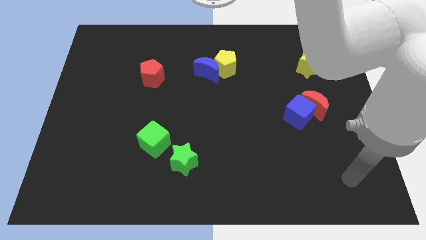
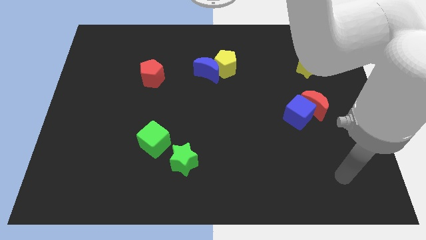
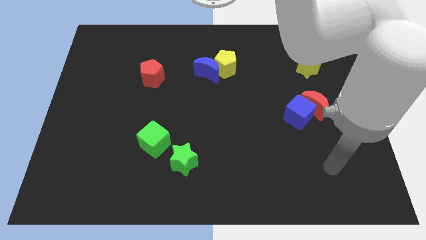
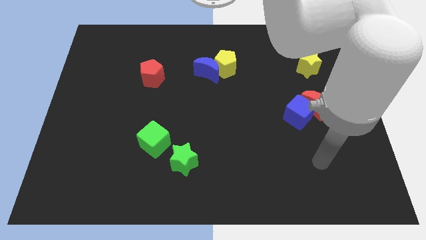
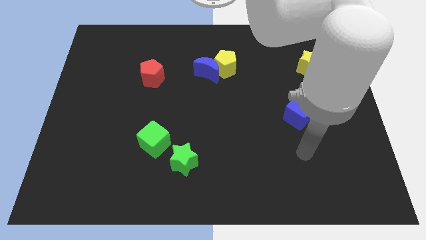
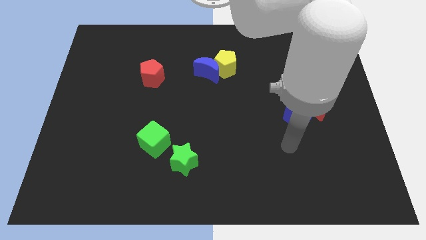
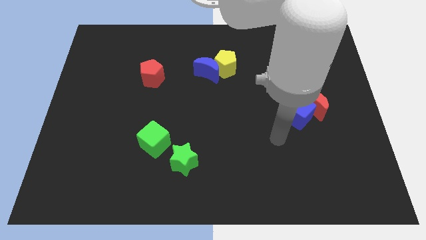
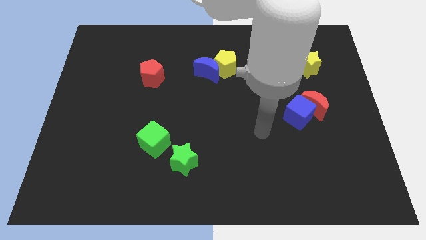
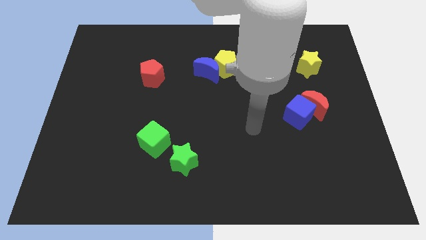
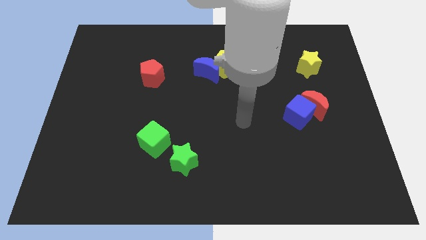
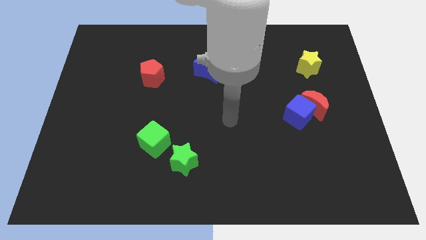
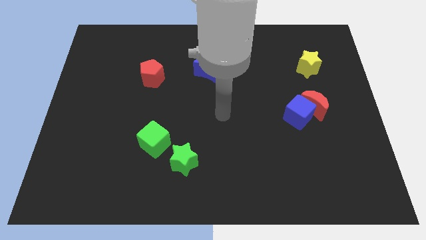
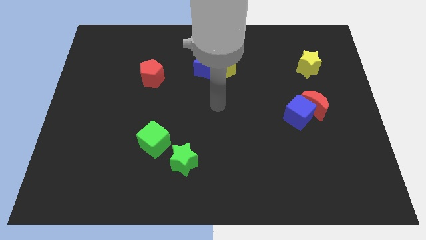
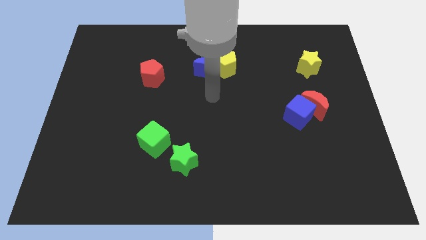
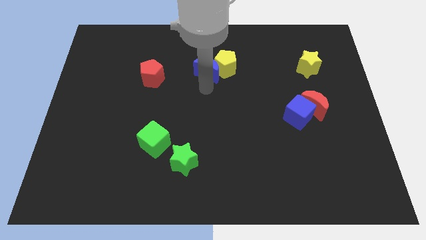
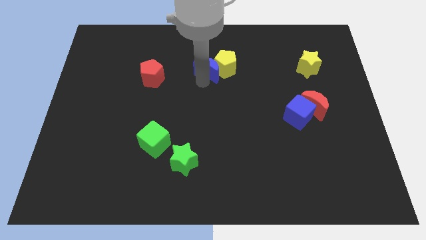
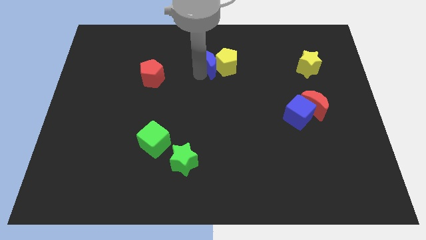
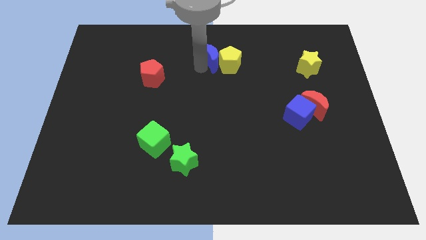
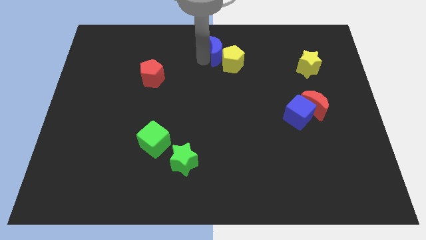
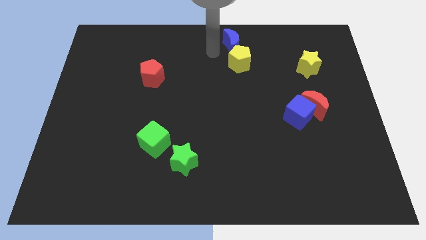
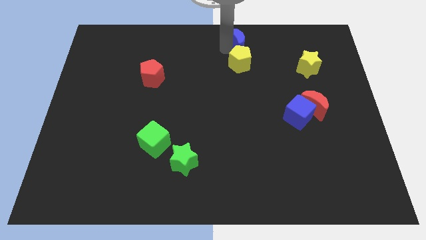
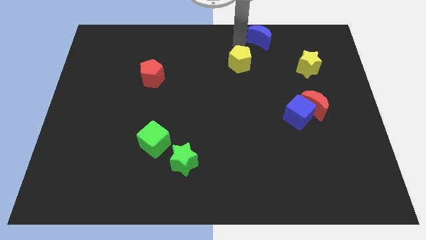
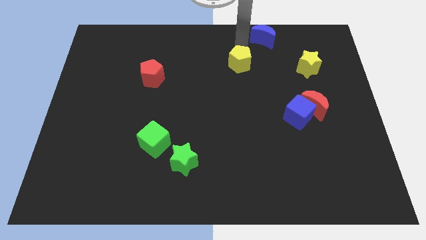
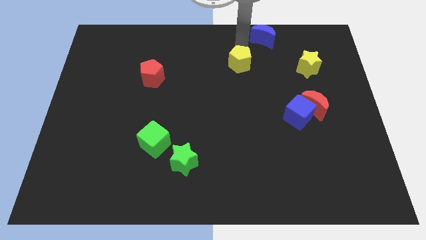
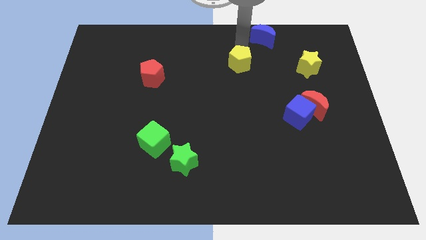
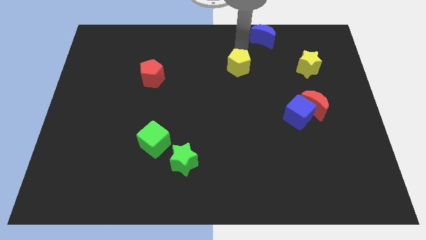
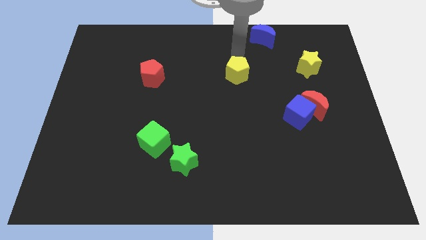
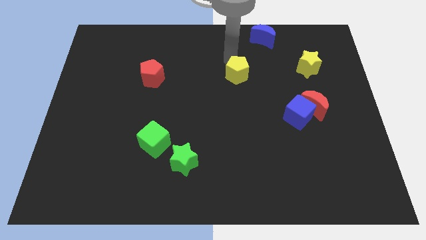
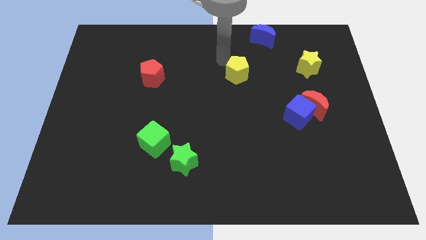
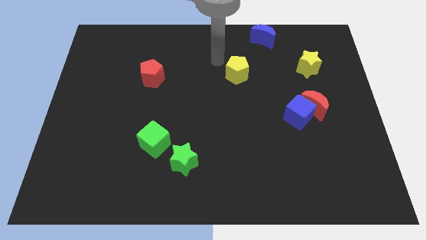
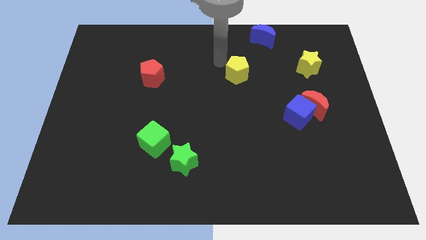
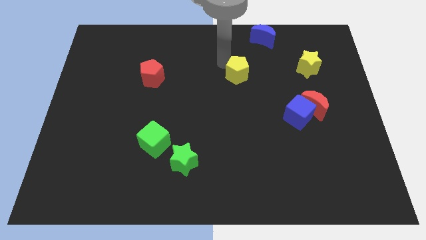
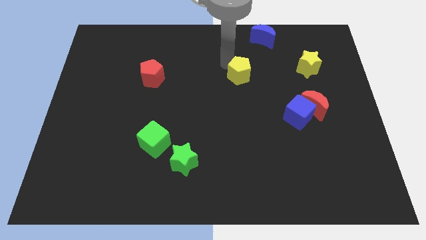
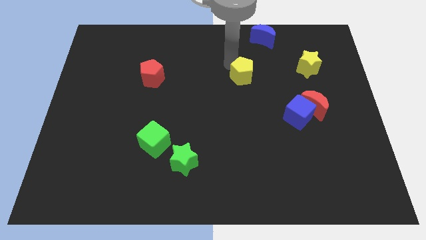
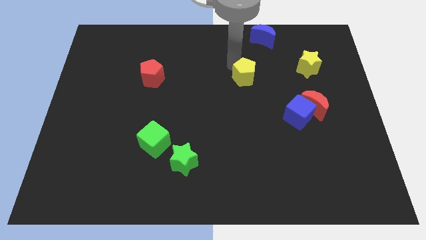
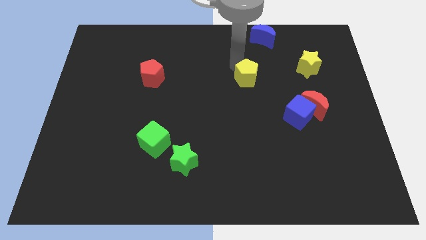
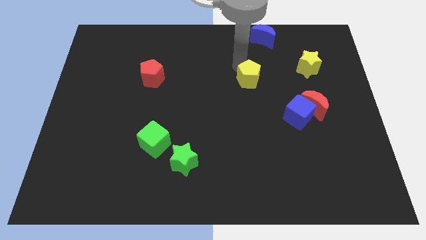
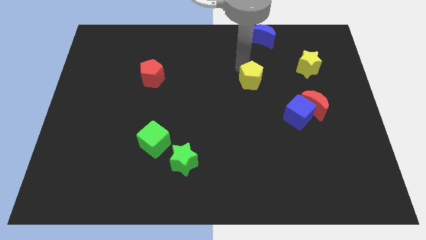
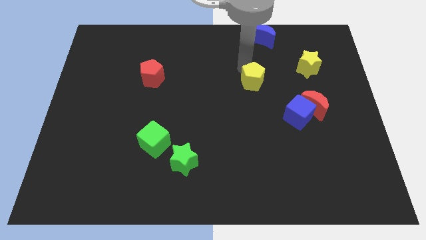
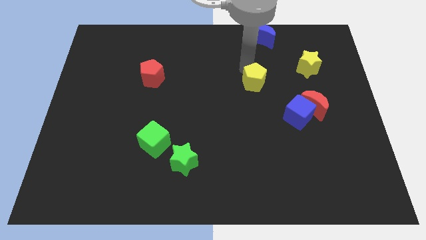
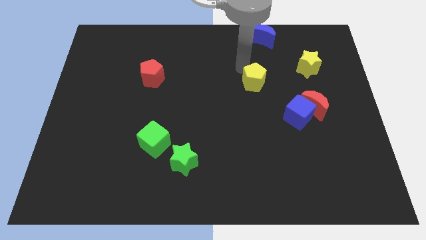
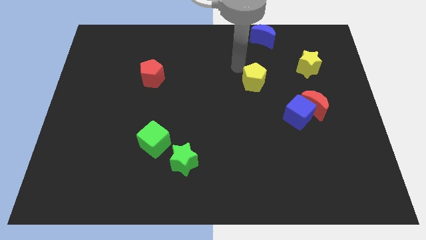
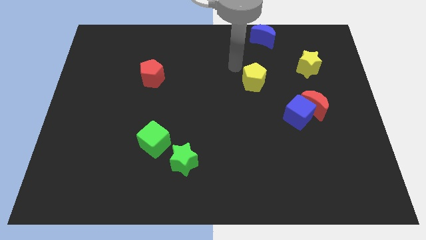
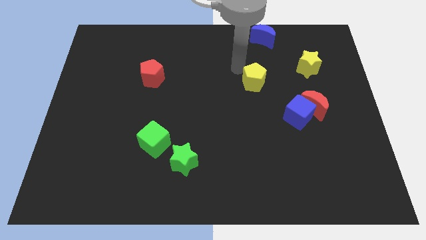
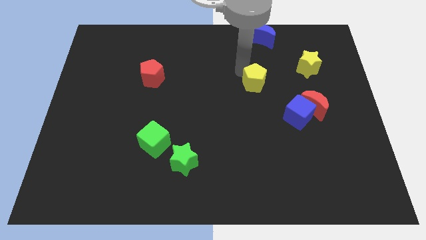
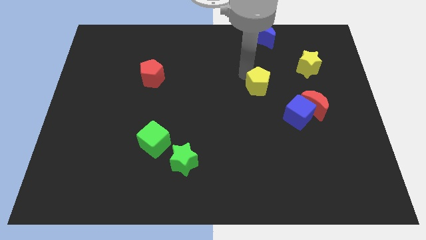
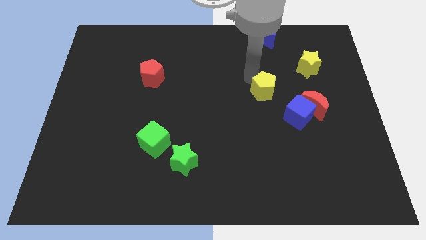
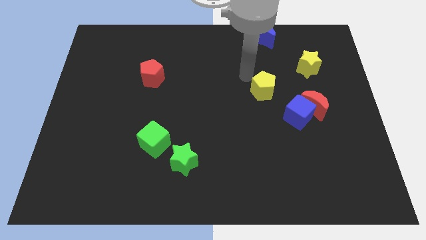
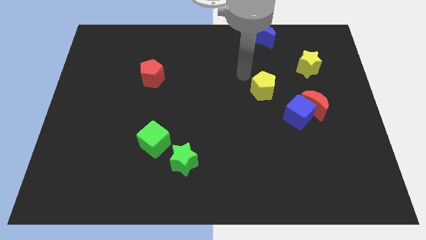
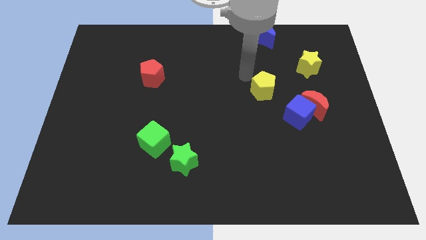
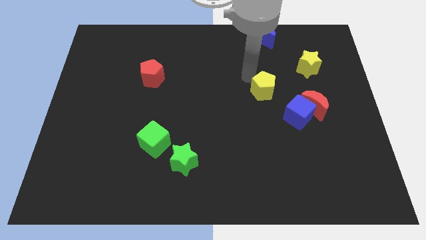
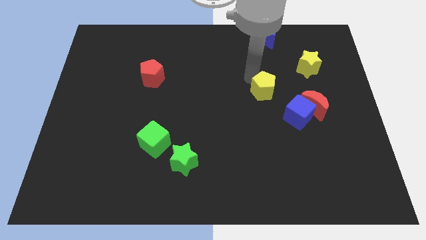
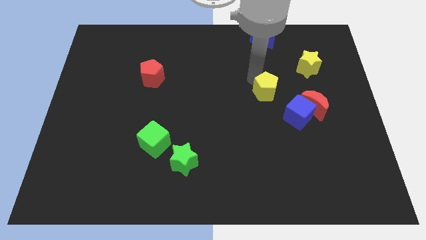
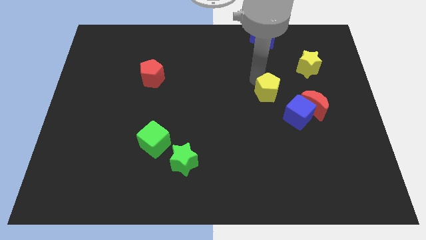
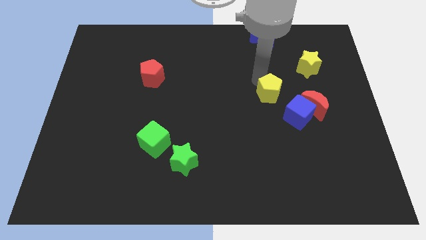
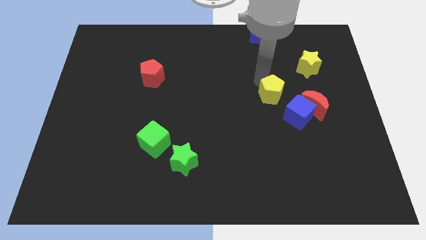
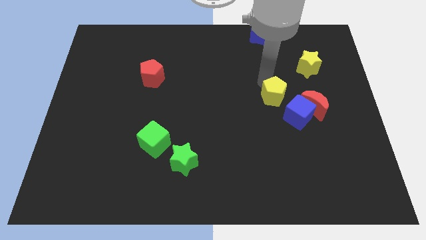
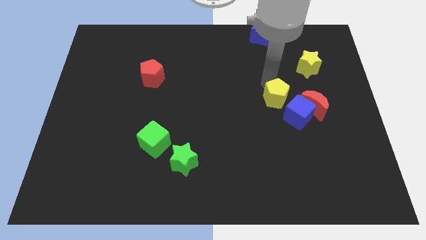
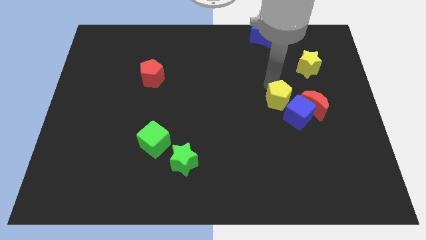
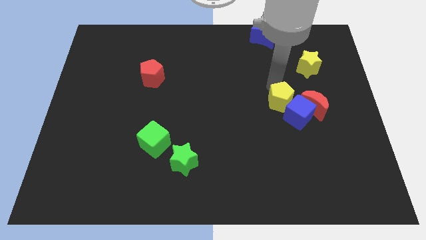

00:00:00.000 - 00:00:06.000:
push the yellow pentagon towards the blue cube

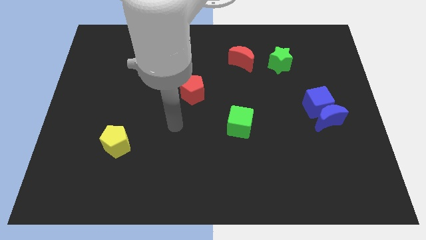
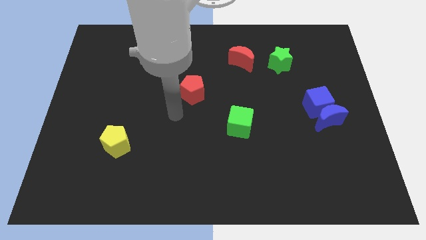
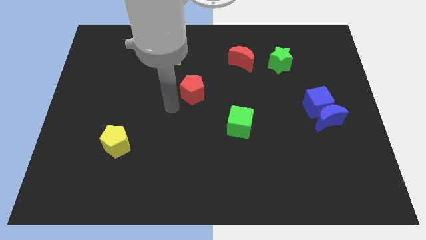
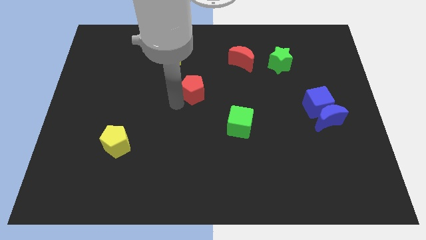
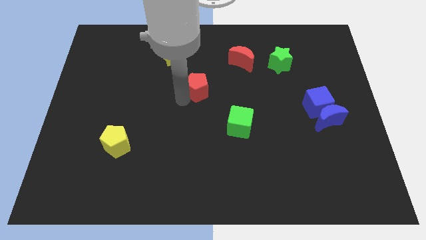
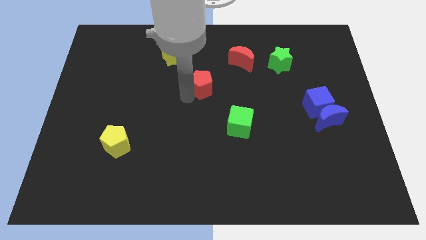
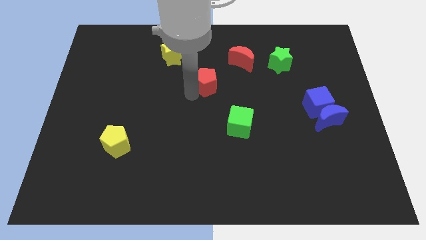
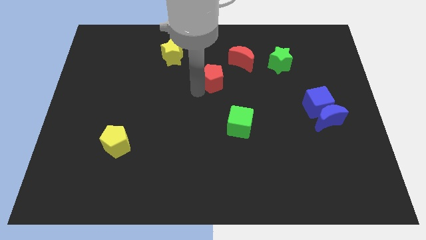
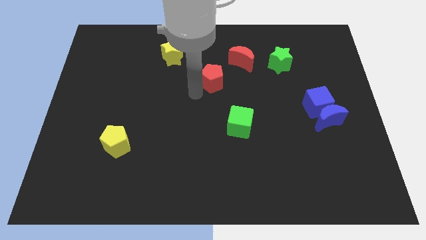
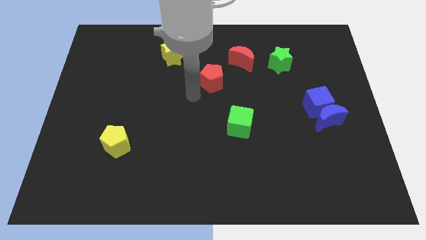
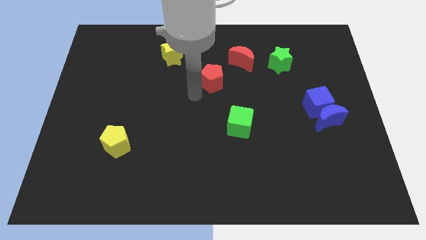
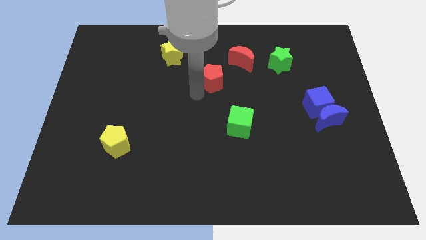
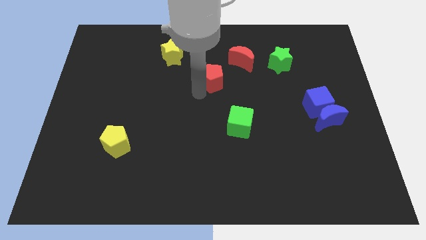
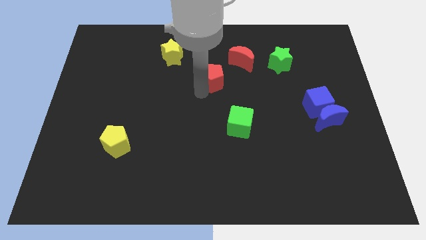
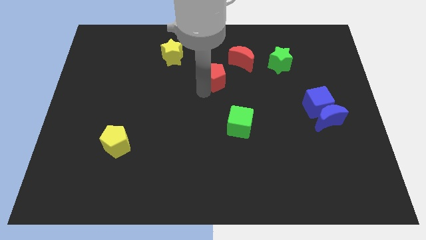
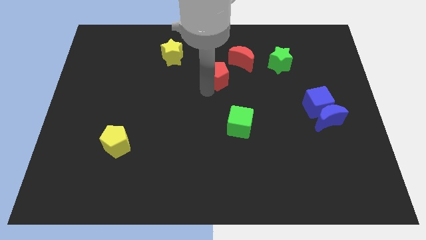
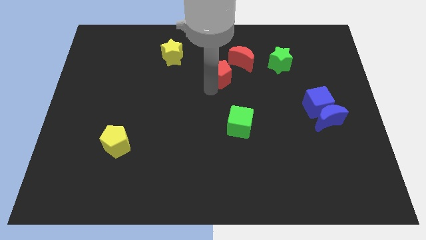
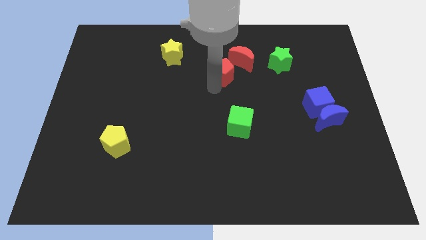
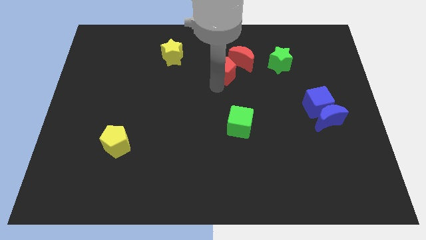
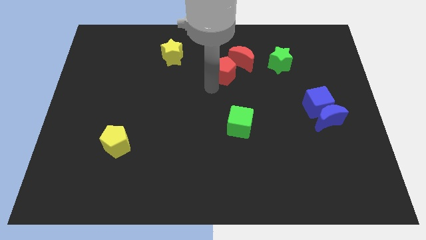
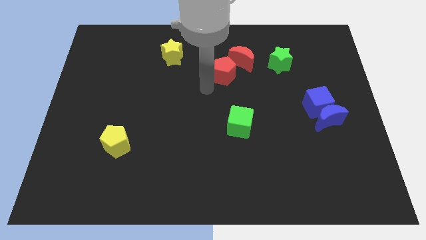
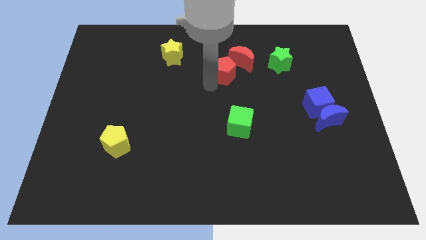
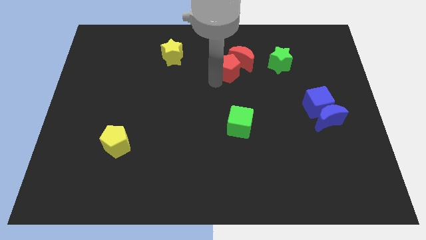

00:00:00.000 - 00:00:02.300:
move the red pentagon close to the red moon
